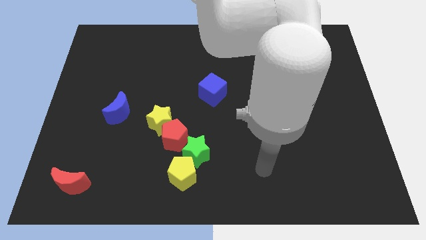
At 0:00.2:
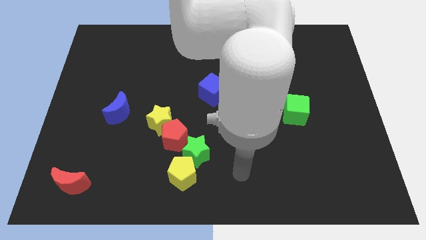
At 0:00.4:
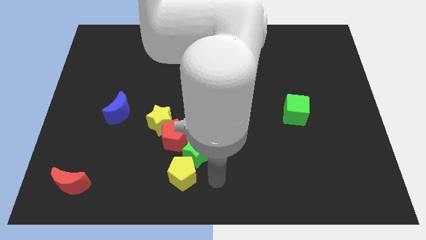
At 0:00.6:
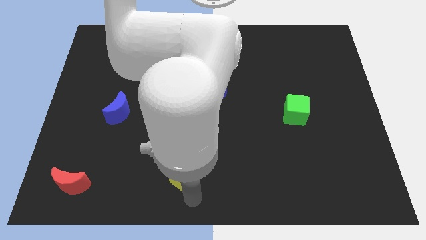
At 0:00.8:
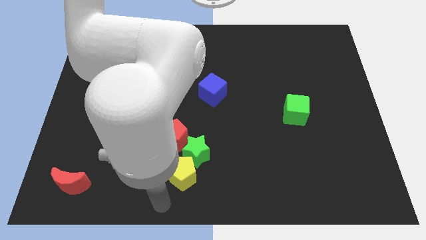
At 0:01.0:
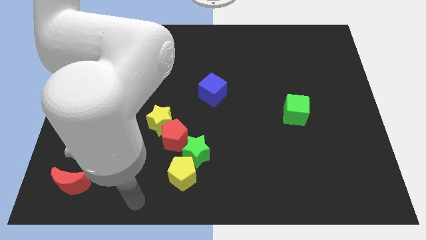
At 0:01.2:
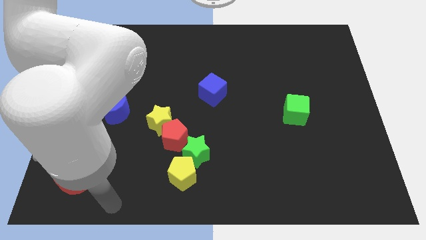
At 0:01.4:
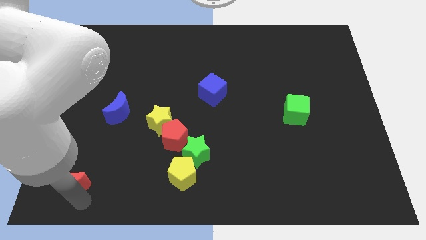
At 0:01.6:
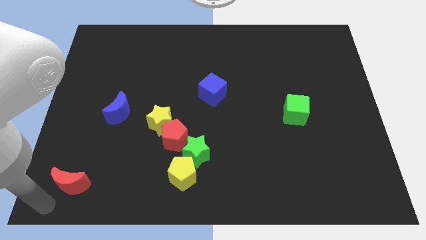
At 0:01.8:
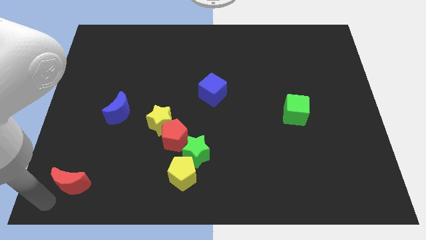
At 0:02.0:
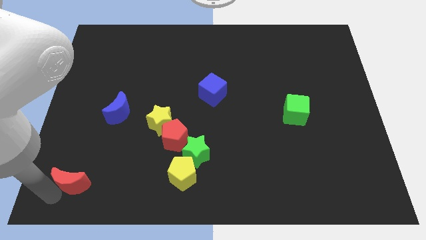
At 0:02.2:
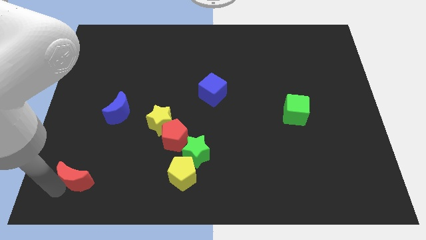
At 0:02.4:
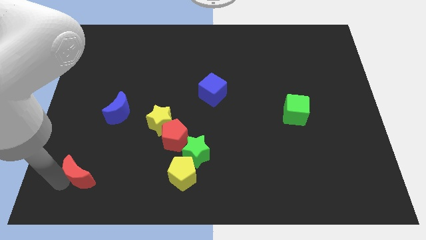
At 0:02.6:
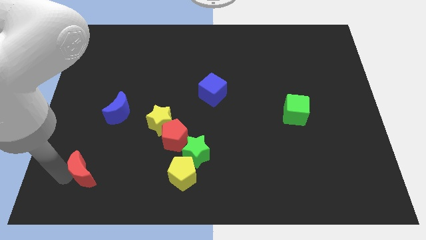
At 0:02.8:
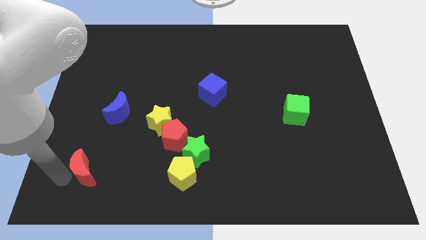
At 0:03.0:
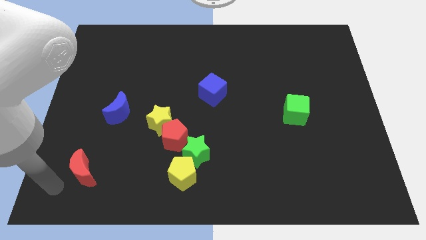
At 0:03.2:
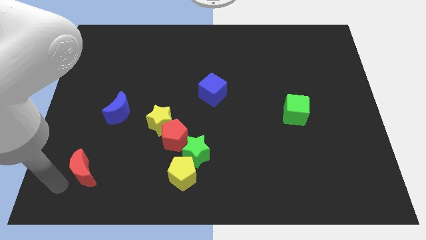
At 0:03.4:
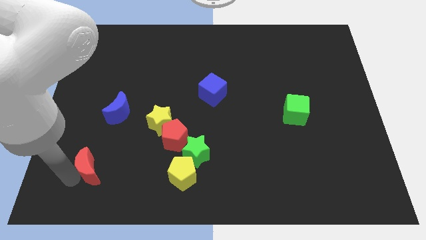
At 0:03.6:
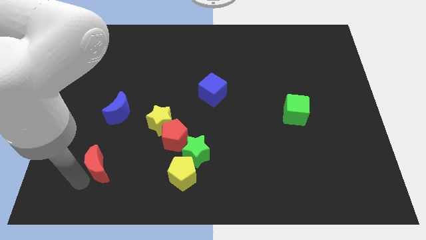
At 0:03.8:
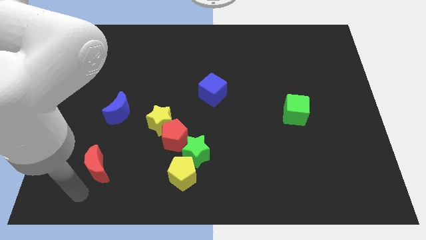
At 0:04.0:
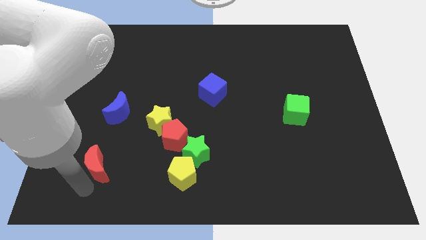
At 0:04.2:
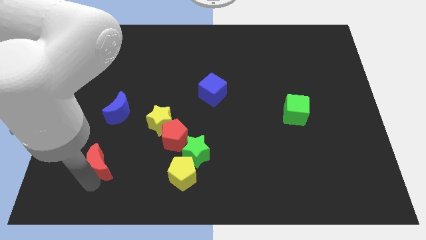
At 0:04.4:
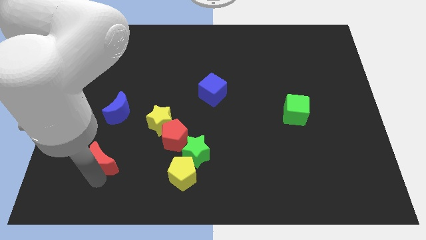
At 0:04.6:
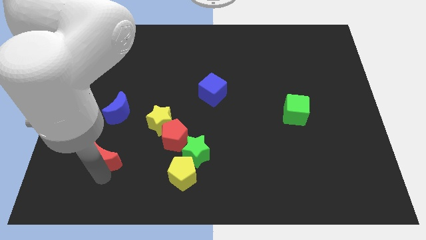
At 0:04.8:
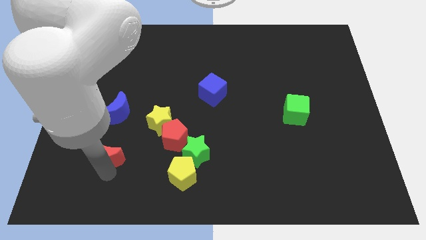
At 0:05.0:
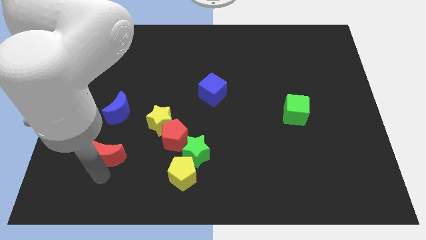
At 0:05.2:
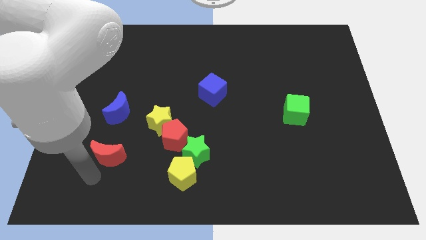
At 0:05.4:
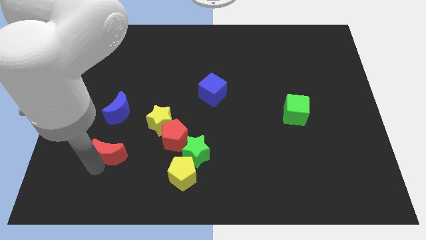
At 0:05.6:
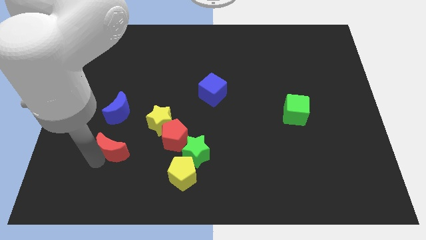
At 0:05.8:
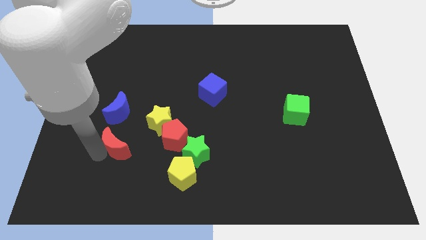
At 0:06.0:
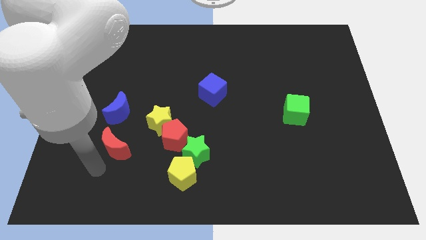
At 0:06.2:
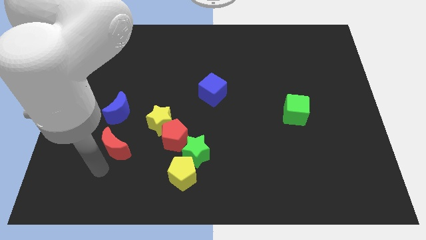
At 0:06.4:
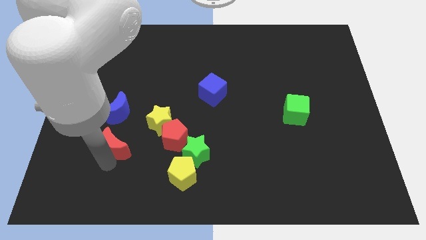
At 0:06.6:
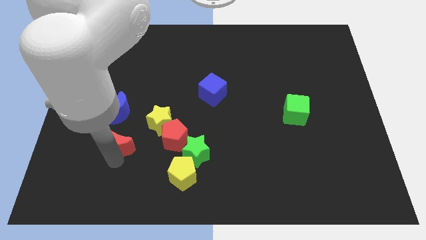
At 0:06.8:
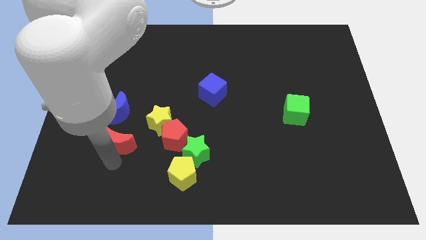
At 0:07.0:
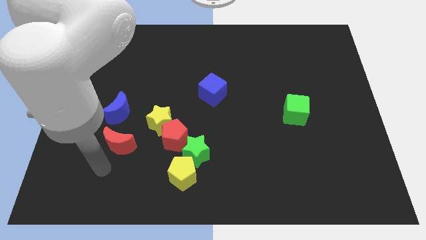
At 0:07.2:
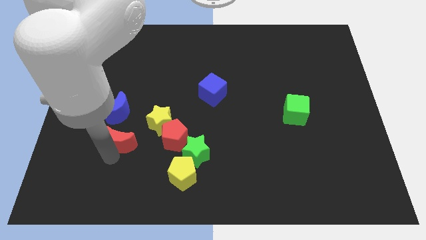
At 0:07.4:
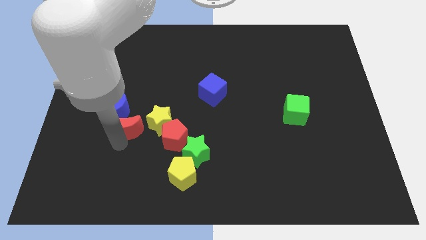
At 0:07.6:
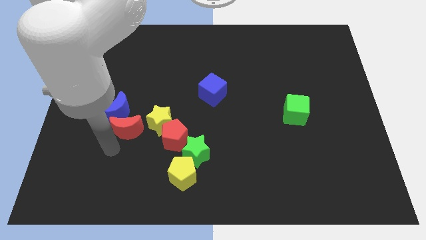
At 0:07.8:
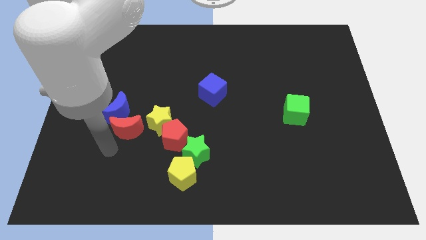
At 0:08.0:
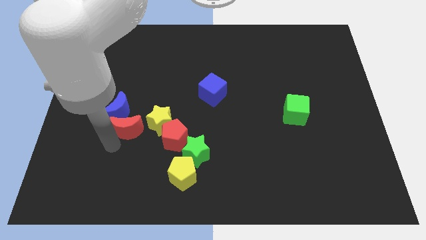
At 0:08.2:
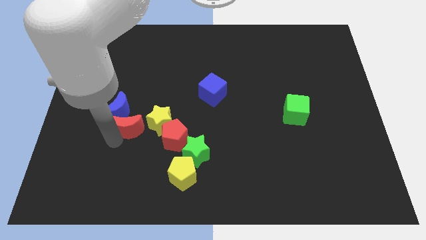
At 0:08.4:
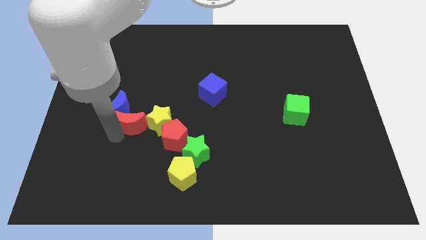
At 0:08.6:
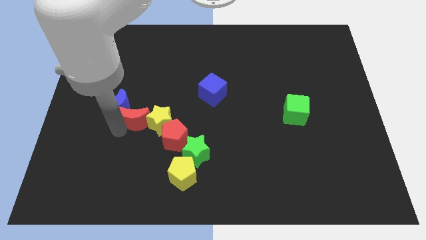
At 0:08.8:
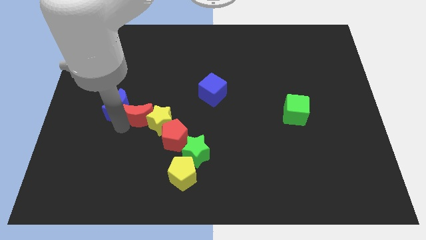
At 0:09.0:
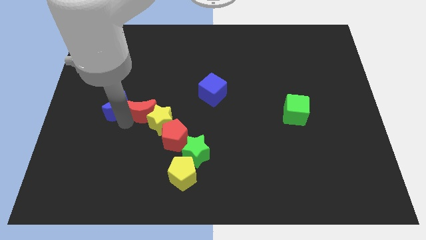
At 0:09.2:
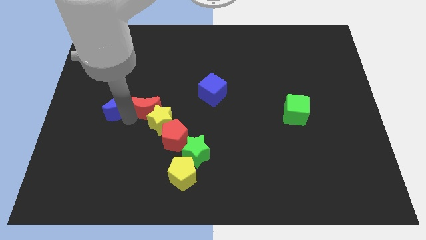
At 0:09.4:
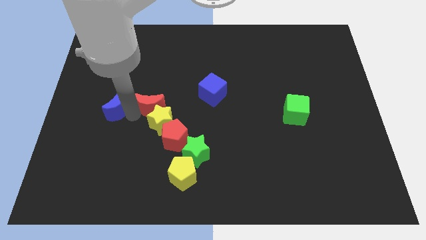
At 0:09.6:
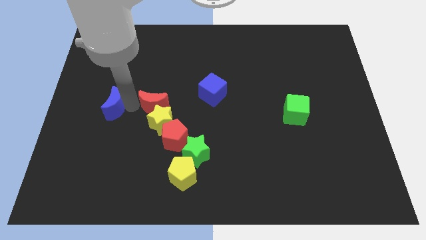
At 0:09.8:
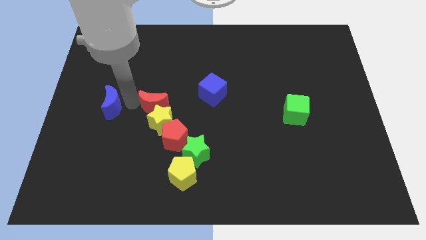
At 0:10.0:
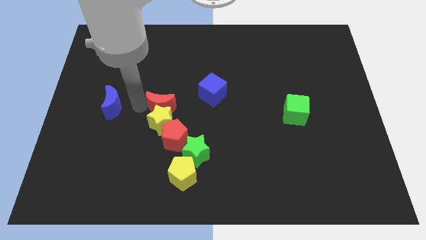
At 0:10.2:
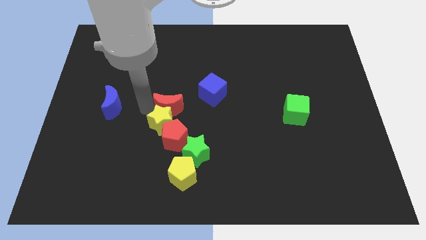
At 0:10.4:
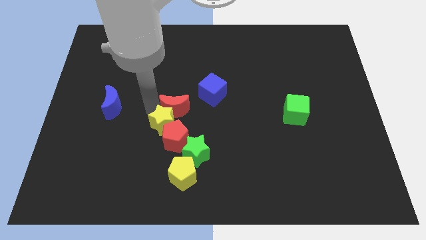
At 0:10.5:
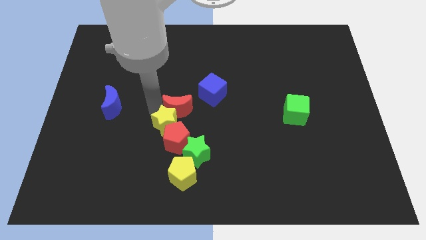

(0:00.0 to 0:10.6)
push the red moon above the green star

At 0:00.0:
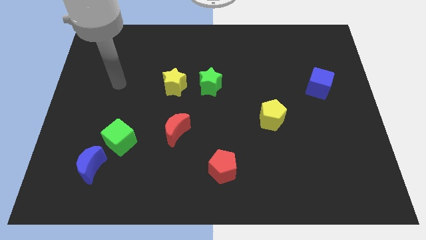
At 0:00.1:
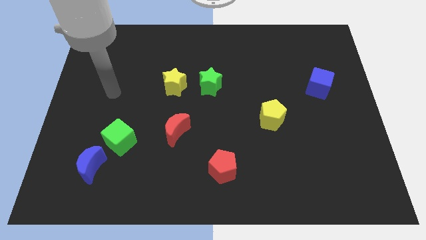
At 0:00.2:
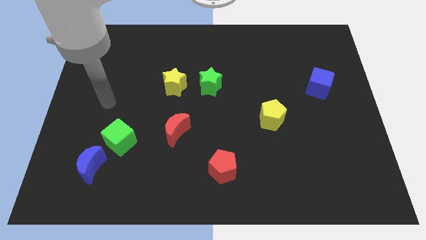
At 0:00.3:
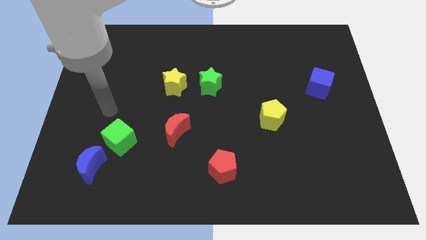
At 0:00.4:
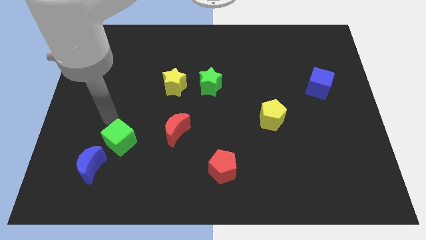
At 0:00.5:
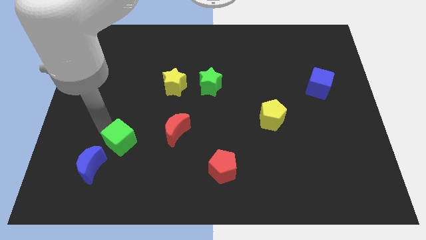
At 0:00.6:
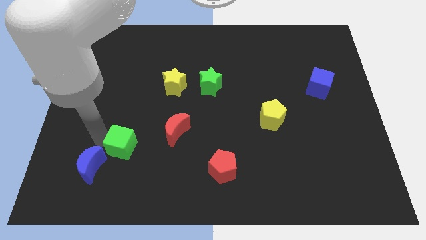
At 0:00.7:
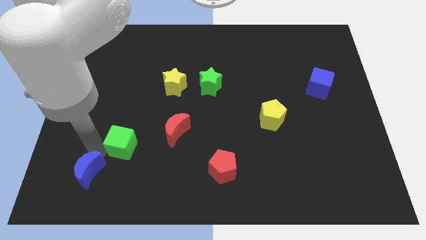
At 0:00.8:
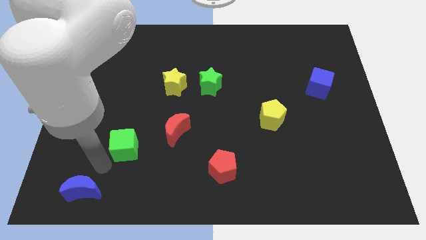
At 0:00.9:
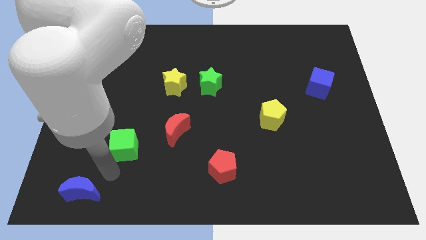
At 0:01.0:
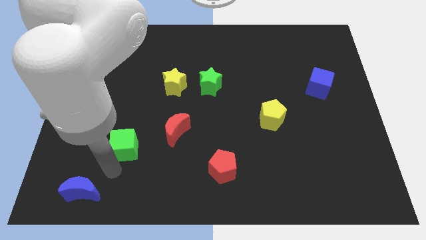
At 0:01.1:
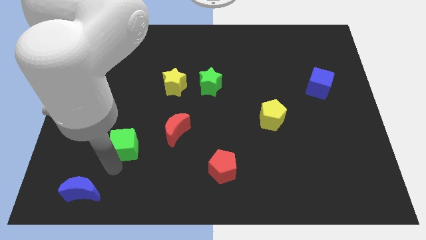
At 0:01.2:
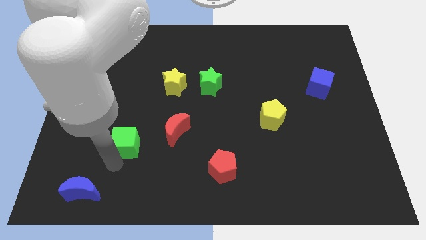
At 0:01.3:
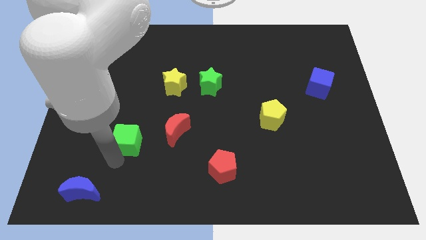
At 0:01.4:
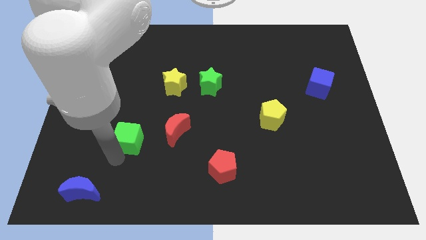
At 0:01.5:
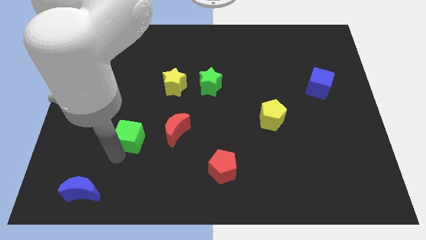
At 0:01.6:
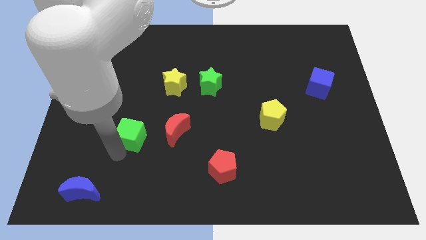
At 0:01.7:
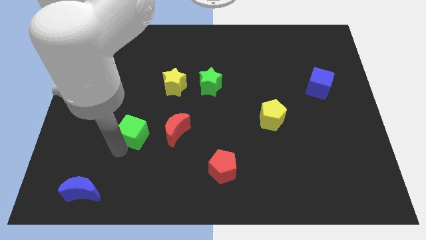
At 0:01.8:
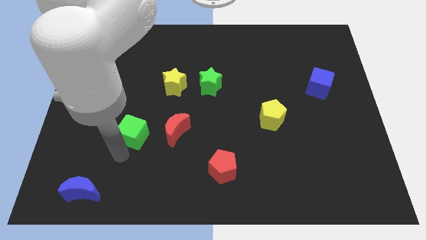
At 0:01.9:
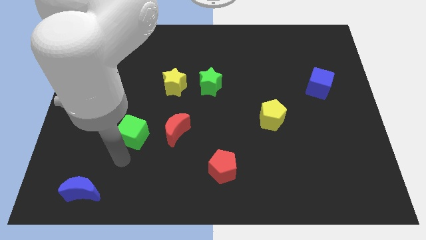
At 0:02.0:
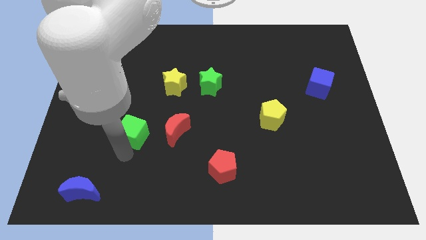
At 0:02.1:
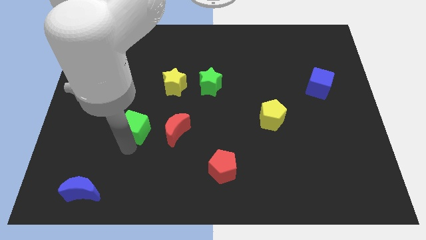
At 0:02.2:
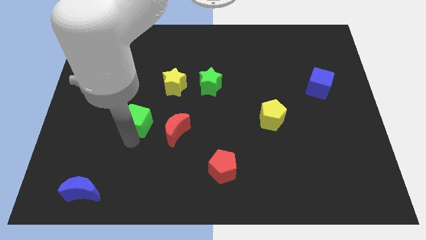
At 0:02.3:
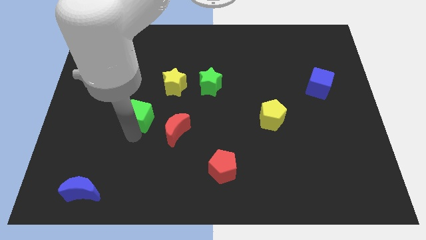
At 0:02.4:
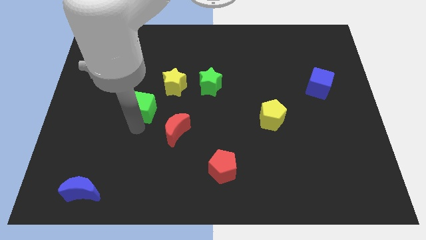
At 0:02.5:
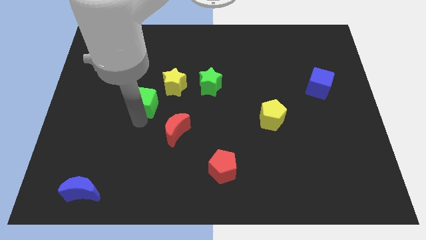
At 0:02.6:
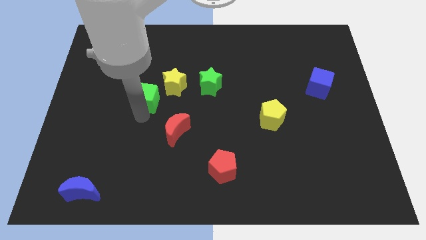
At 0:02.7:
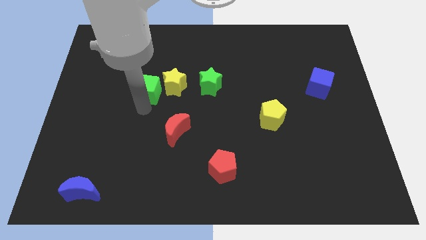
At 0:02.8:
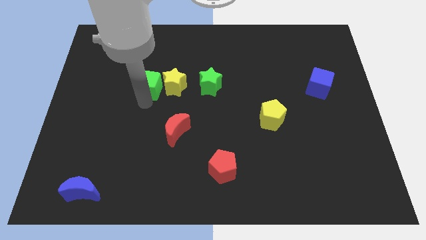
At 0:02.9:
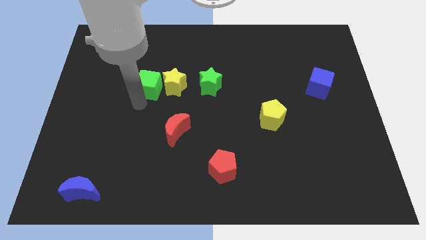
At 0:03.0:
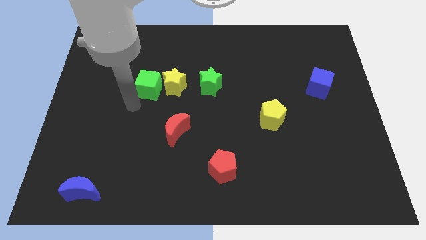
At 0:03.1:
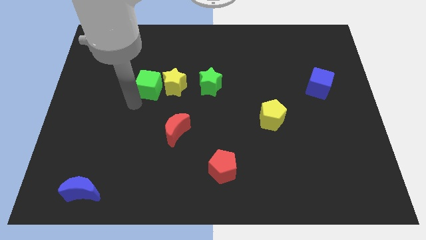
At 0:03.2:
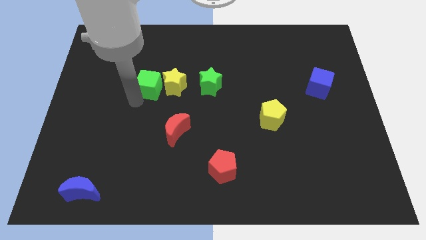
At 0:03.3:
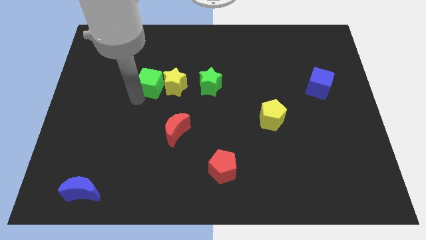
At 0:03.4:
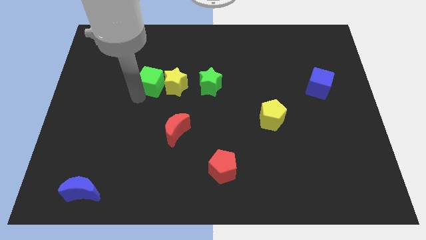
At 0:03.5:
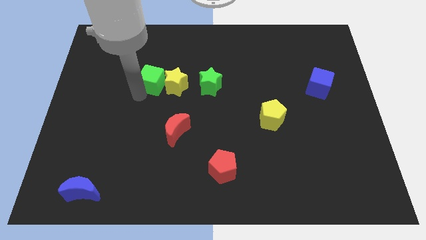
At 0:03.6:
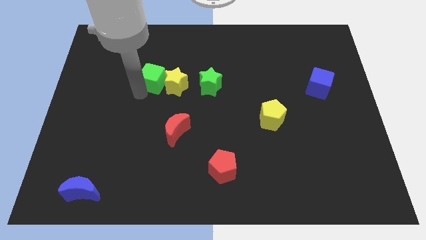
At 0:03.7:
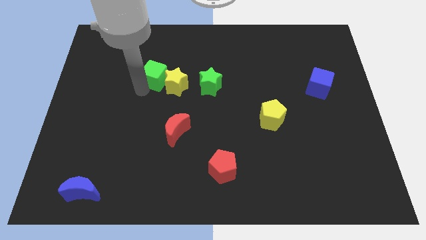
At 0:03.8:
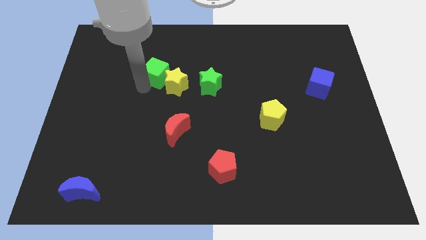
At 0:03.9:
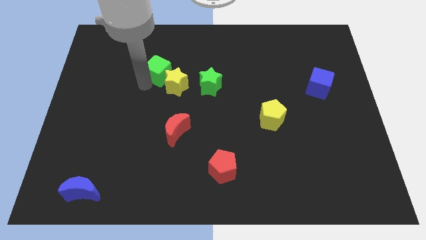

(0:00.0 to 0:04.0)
push the green cube to the top of the yellow star
